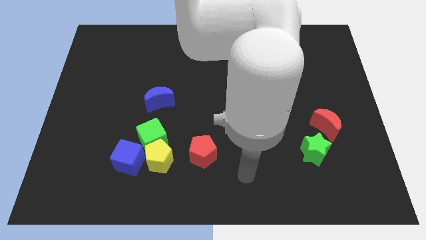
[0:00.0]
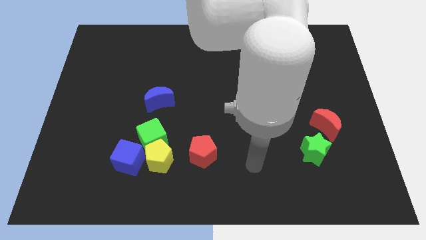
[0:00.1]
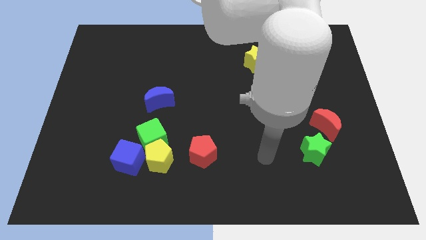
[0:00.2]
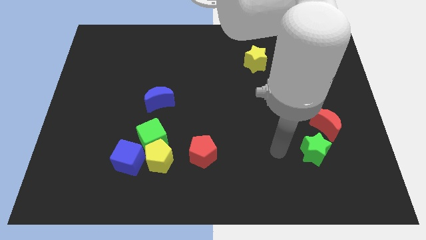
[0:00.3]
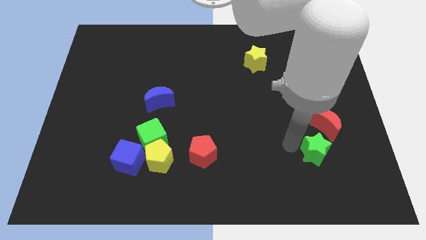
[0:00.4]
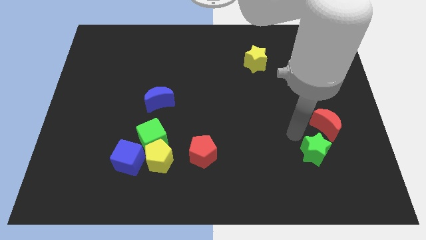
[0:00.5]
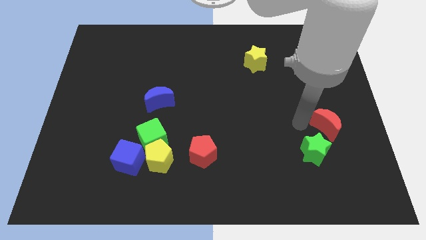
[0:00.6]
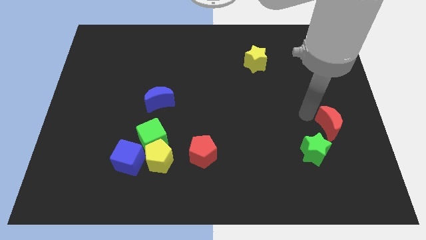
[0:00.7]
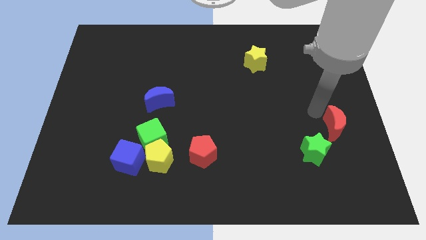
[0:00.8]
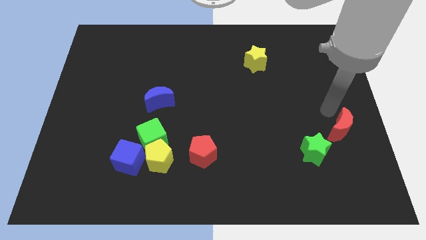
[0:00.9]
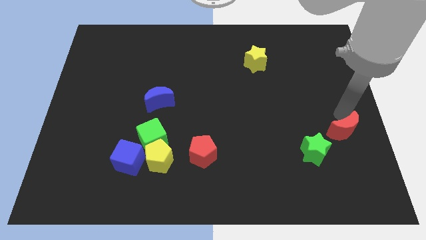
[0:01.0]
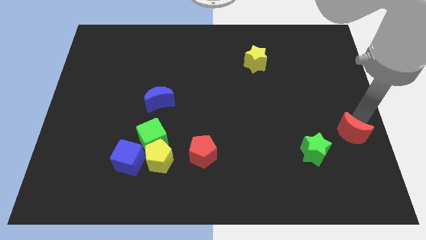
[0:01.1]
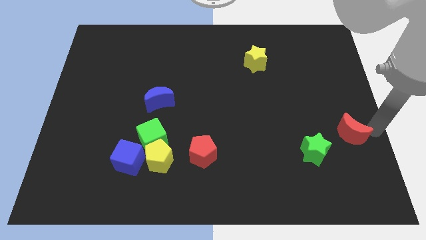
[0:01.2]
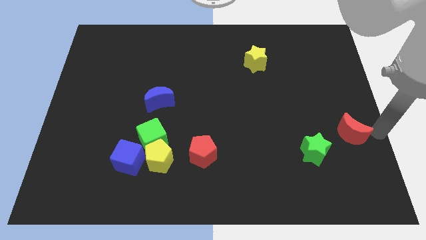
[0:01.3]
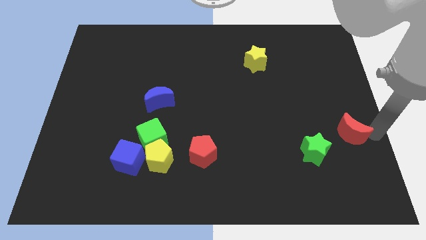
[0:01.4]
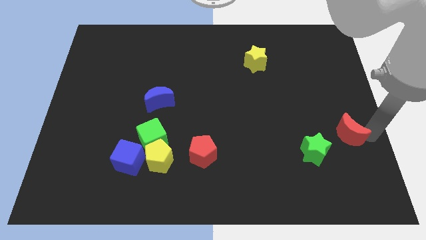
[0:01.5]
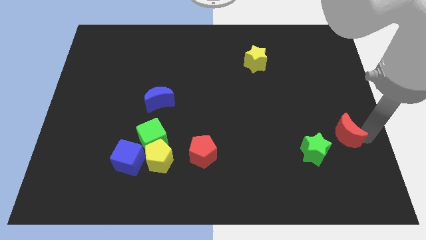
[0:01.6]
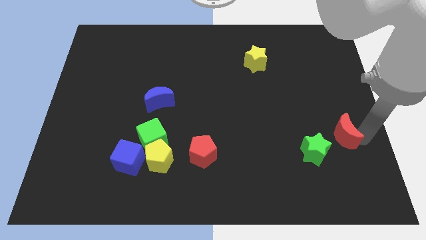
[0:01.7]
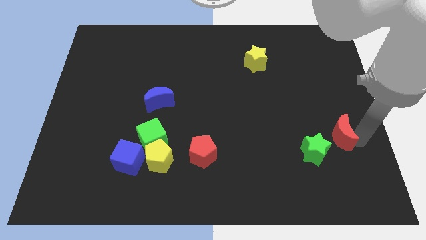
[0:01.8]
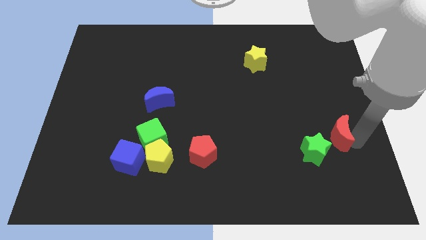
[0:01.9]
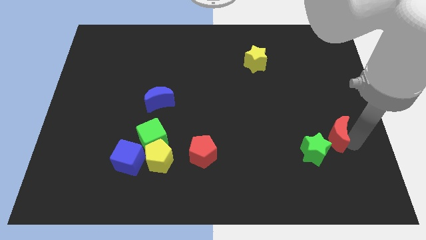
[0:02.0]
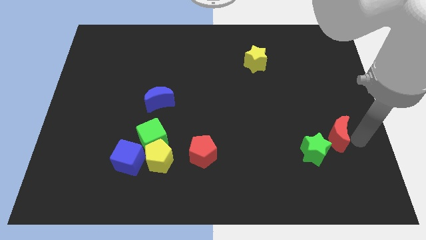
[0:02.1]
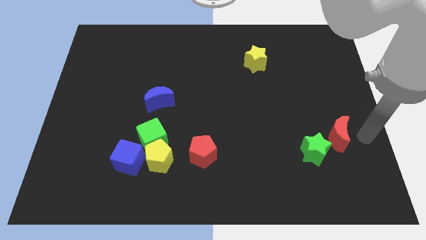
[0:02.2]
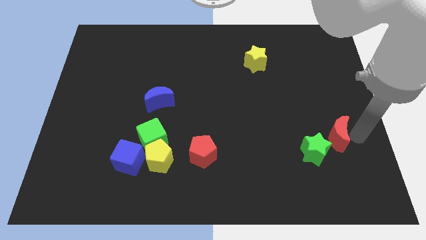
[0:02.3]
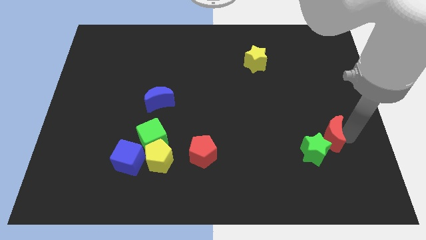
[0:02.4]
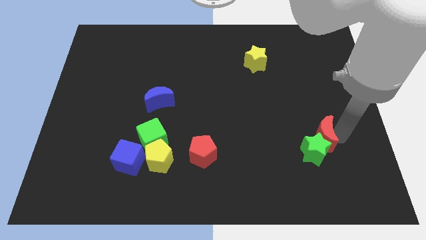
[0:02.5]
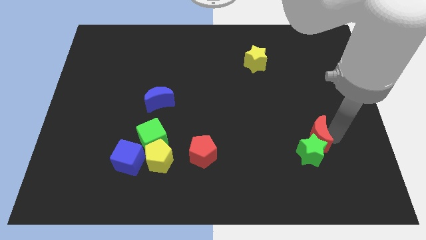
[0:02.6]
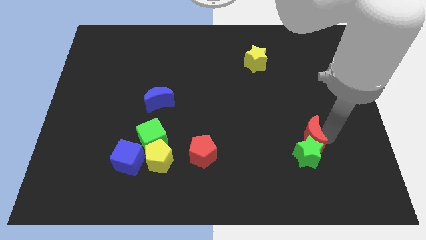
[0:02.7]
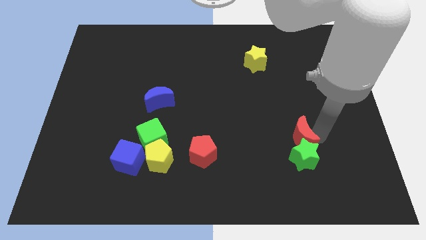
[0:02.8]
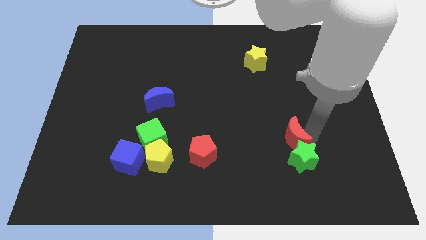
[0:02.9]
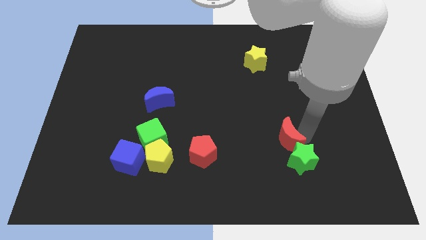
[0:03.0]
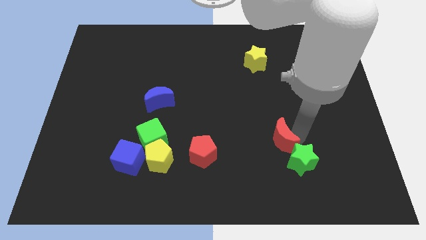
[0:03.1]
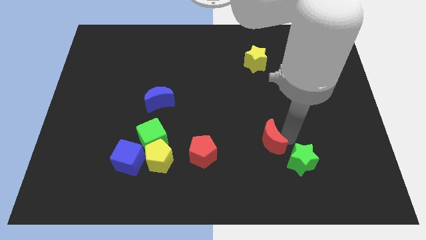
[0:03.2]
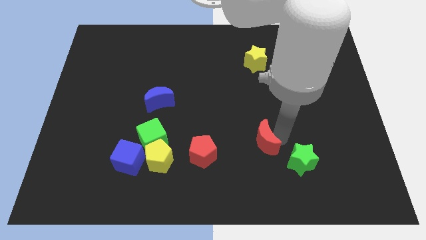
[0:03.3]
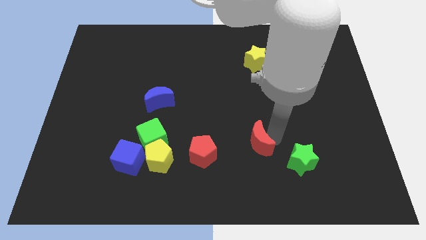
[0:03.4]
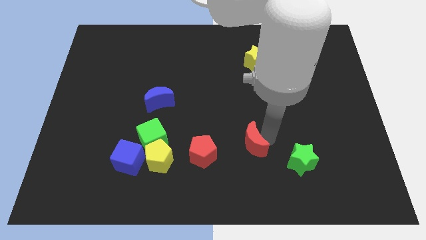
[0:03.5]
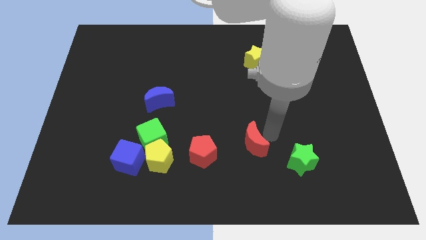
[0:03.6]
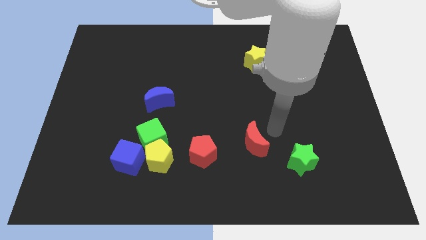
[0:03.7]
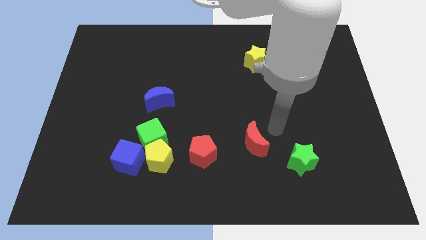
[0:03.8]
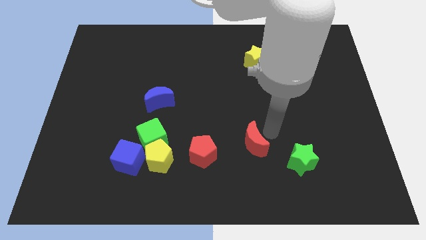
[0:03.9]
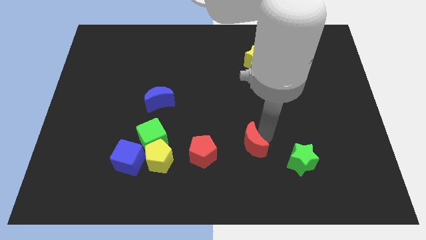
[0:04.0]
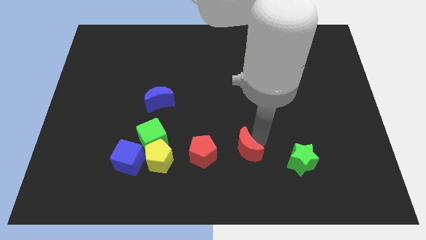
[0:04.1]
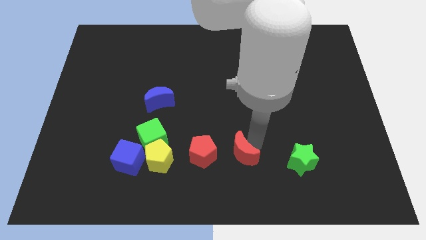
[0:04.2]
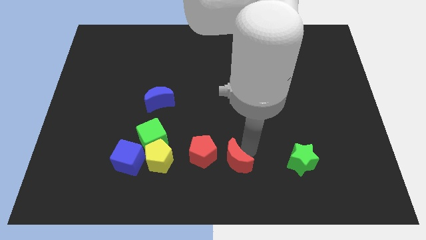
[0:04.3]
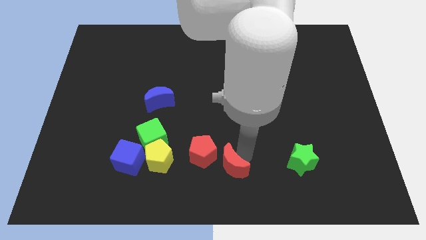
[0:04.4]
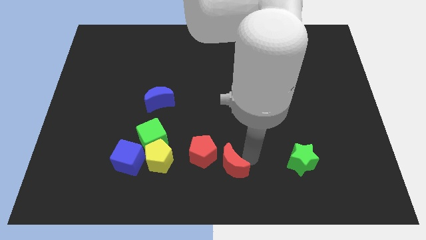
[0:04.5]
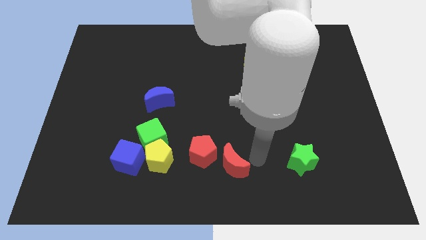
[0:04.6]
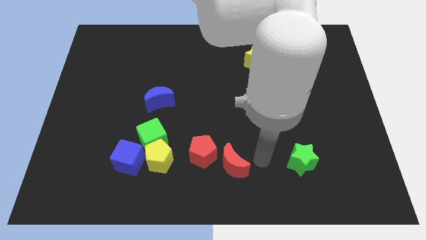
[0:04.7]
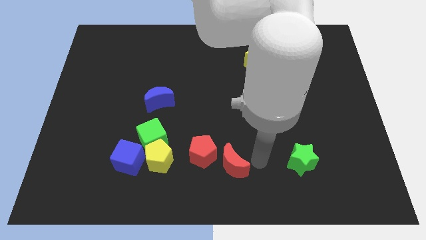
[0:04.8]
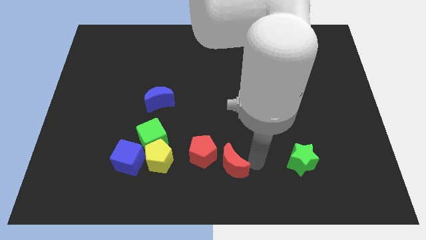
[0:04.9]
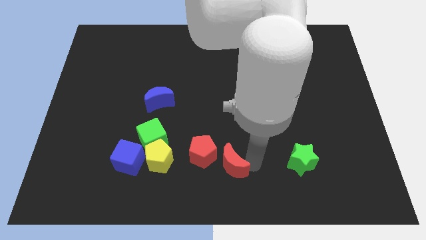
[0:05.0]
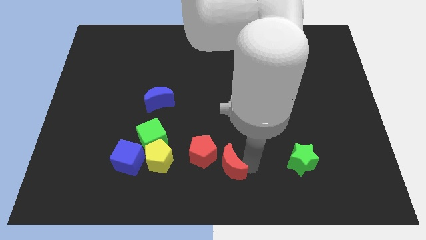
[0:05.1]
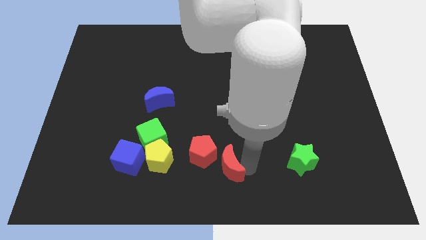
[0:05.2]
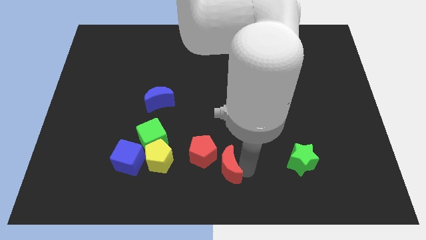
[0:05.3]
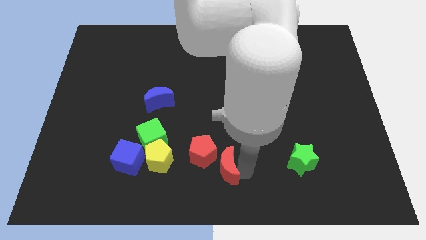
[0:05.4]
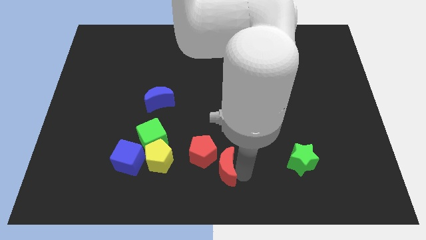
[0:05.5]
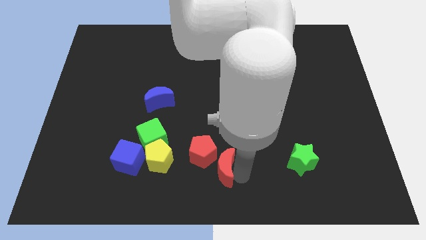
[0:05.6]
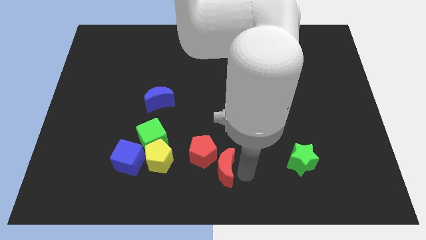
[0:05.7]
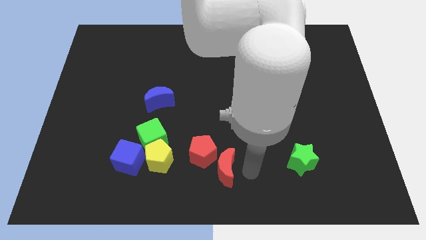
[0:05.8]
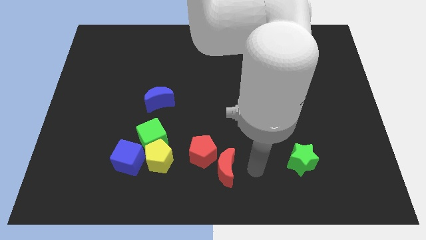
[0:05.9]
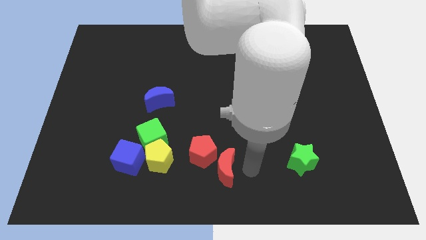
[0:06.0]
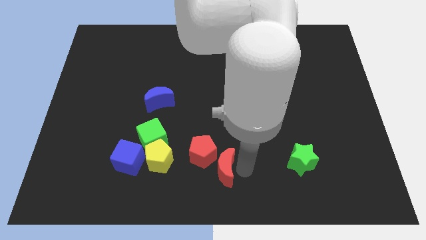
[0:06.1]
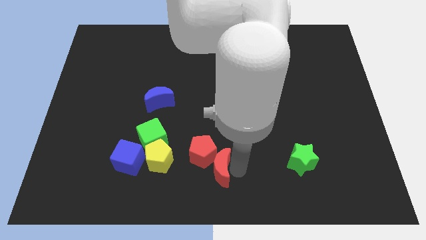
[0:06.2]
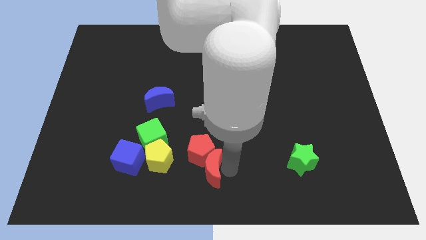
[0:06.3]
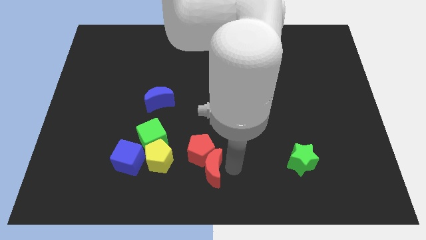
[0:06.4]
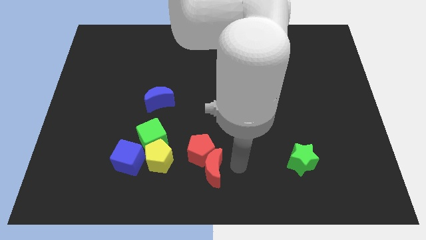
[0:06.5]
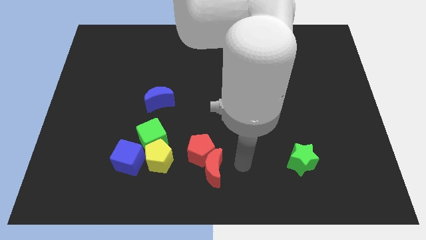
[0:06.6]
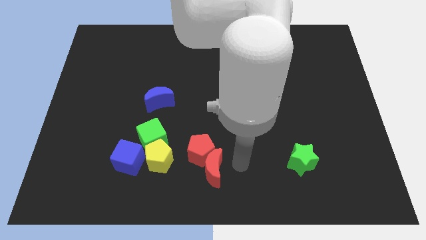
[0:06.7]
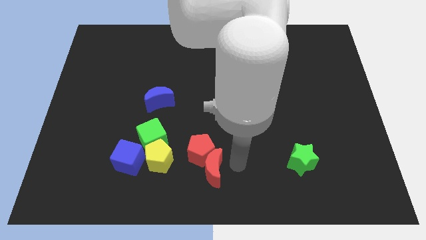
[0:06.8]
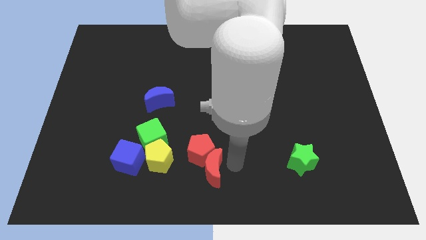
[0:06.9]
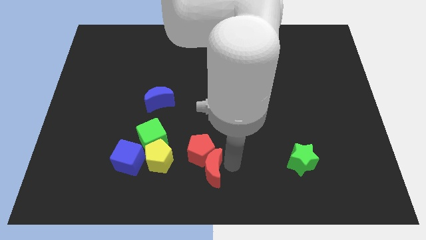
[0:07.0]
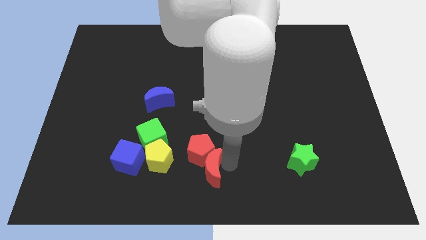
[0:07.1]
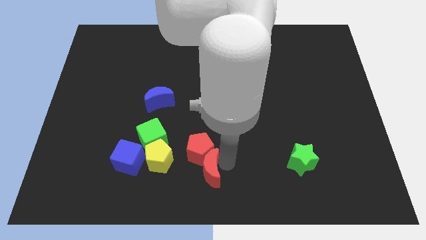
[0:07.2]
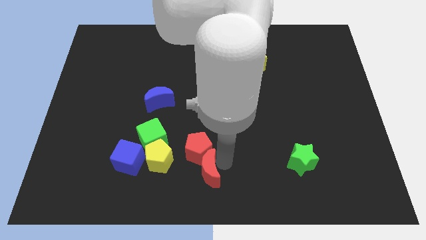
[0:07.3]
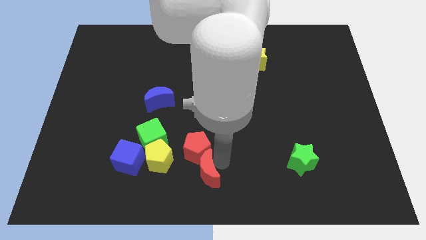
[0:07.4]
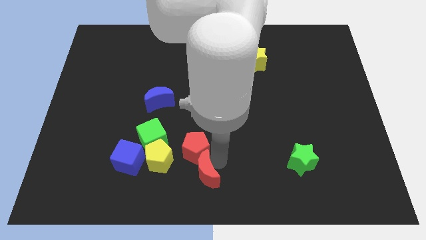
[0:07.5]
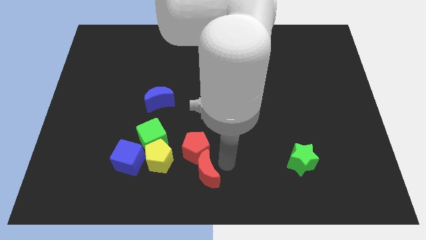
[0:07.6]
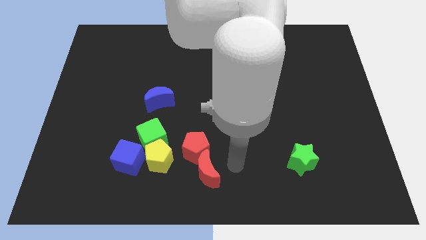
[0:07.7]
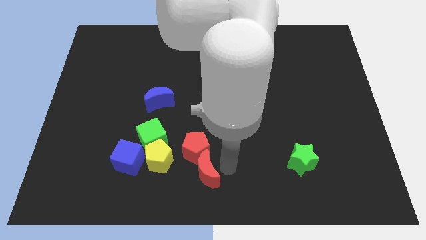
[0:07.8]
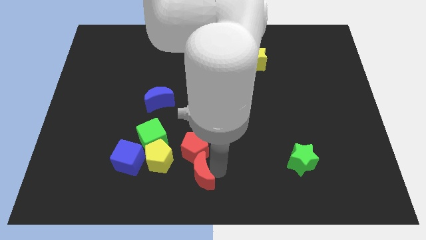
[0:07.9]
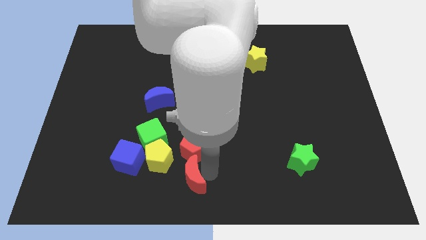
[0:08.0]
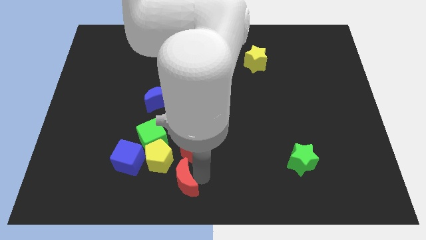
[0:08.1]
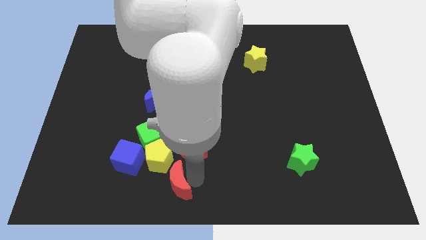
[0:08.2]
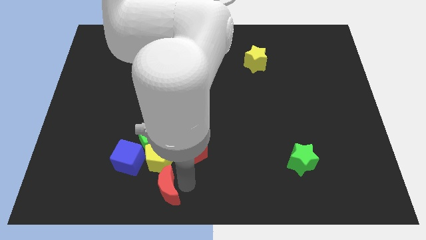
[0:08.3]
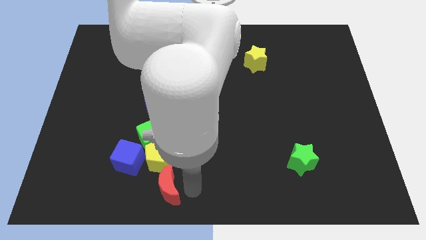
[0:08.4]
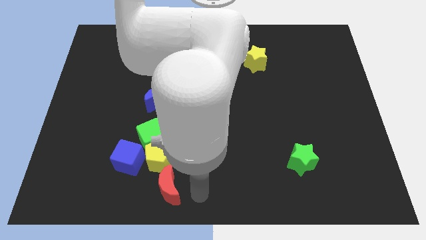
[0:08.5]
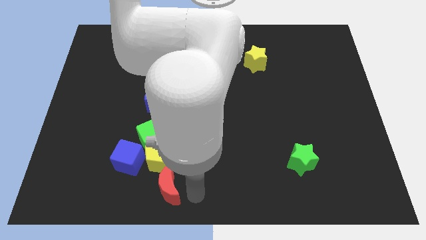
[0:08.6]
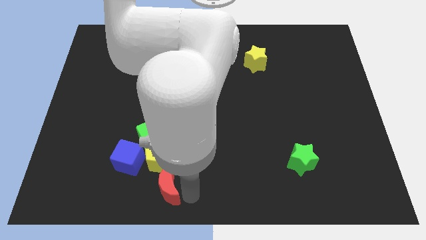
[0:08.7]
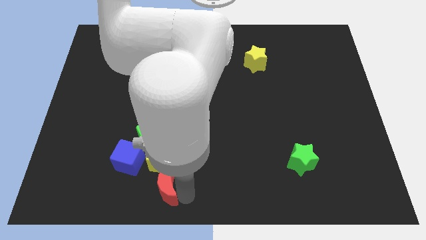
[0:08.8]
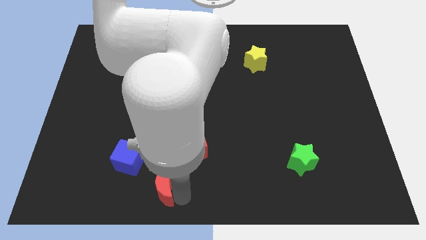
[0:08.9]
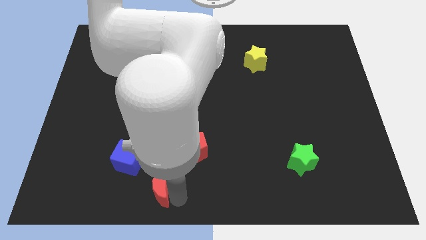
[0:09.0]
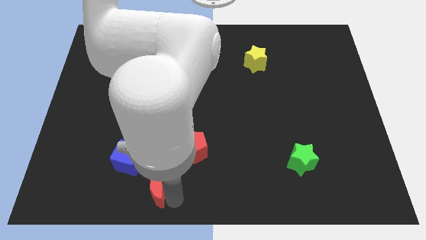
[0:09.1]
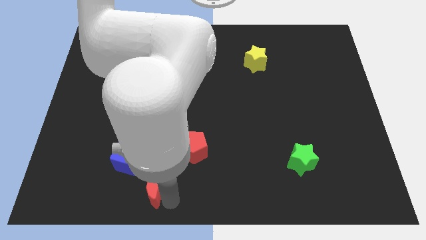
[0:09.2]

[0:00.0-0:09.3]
move the red moon diagonally down and to the left of the yellow pentagon
